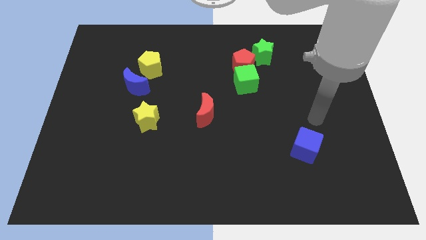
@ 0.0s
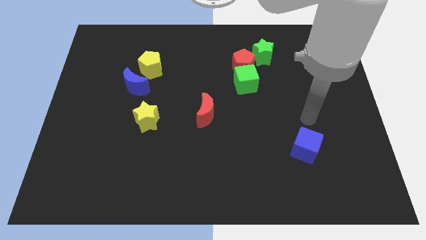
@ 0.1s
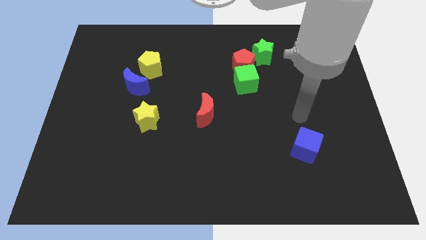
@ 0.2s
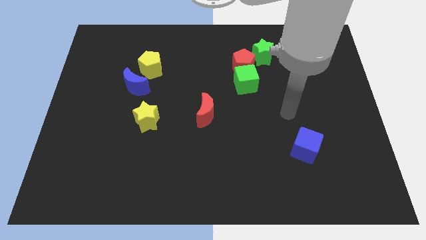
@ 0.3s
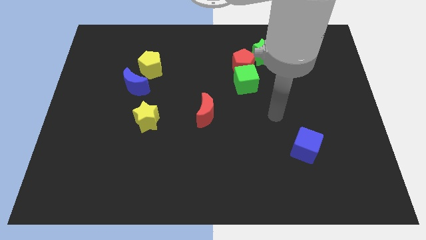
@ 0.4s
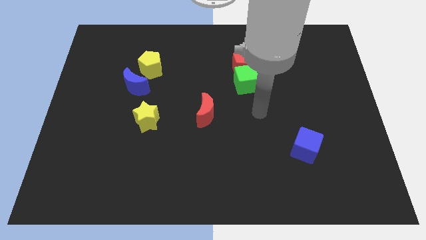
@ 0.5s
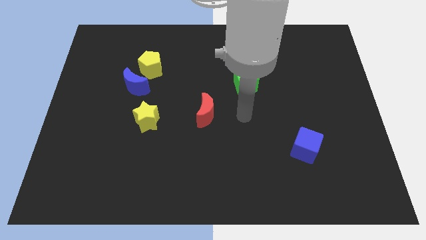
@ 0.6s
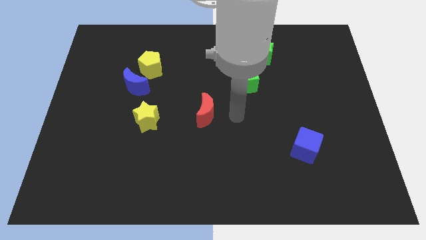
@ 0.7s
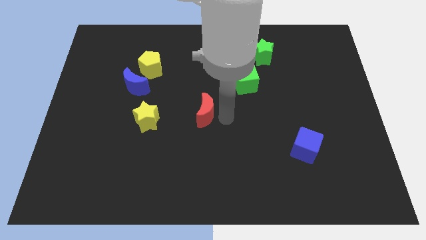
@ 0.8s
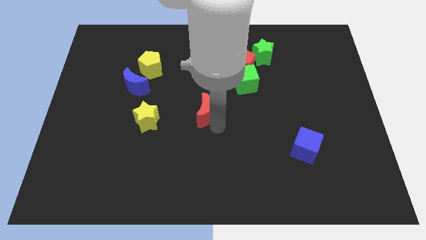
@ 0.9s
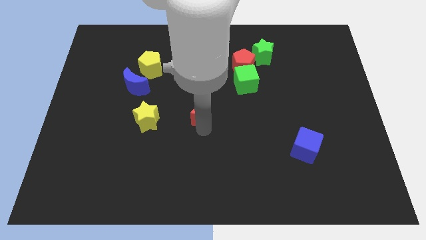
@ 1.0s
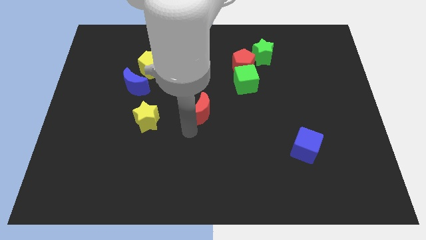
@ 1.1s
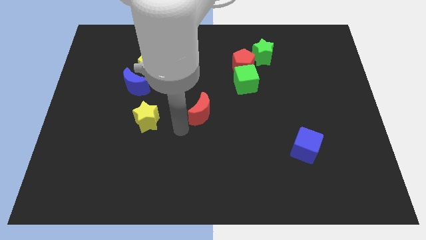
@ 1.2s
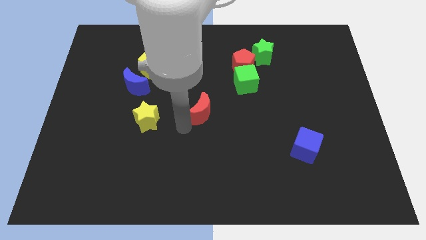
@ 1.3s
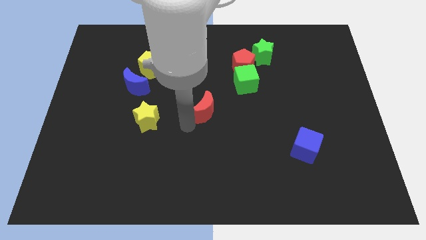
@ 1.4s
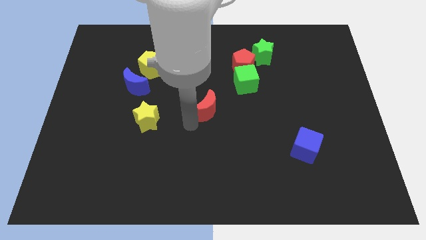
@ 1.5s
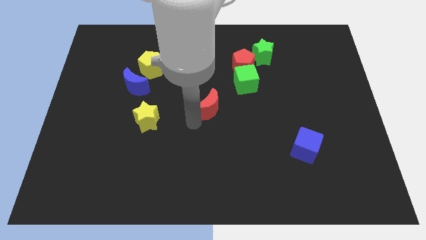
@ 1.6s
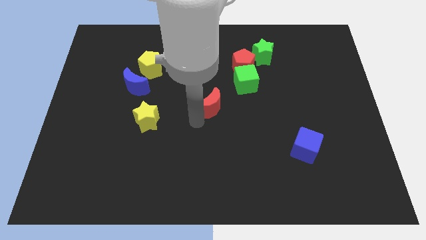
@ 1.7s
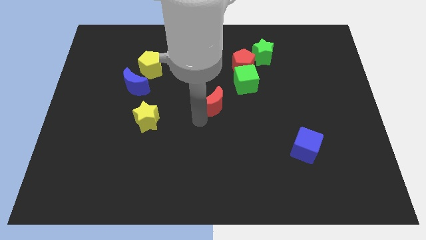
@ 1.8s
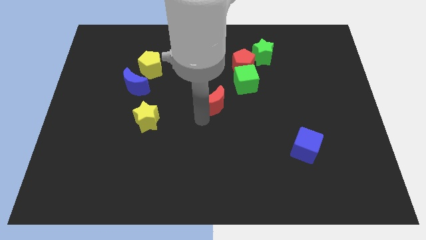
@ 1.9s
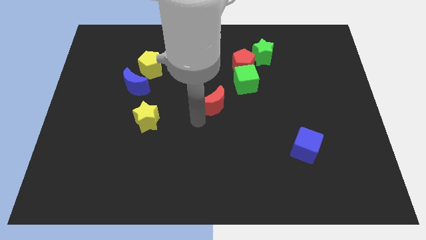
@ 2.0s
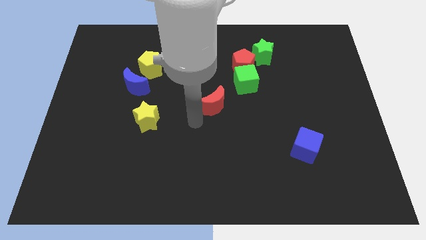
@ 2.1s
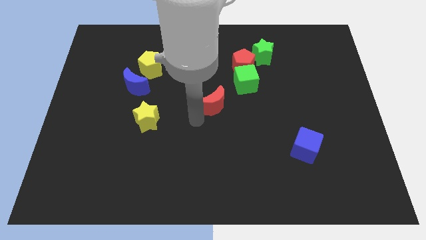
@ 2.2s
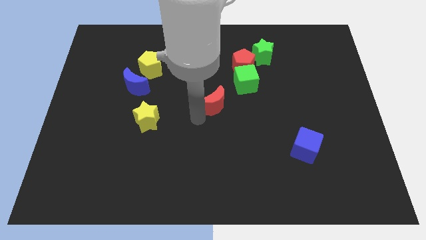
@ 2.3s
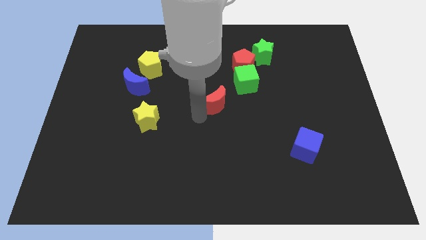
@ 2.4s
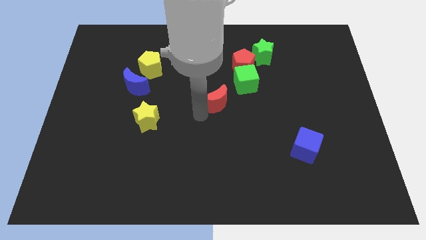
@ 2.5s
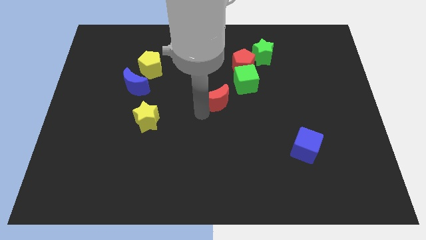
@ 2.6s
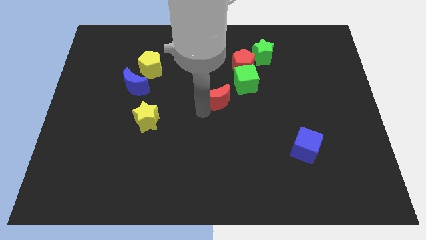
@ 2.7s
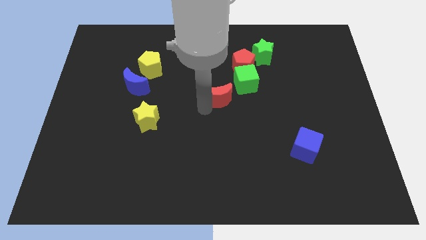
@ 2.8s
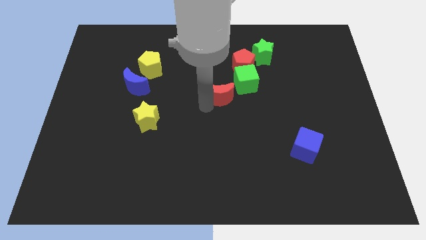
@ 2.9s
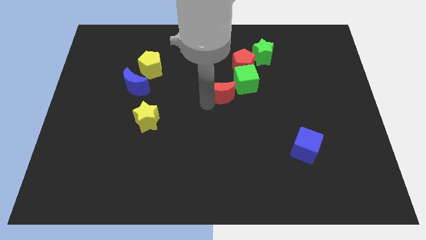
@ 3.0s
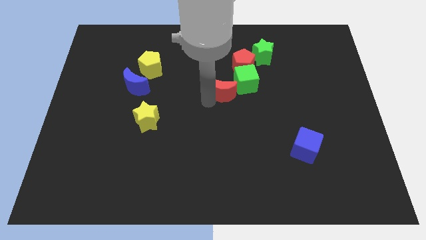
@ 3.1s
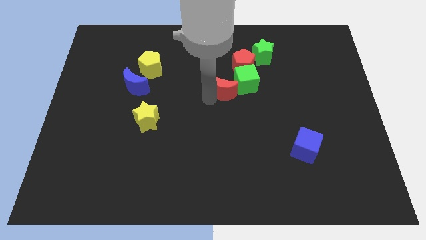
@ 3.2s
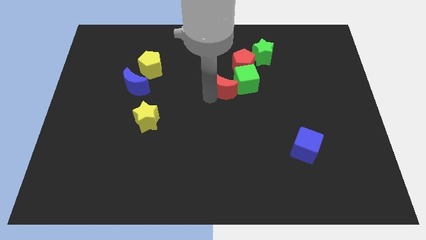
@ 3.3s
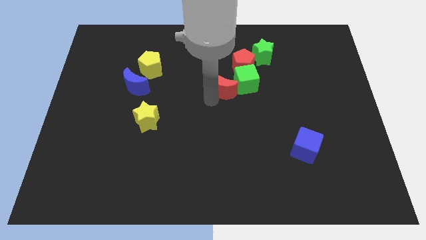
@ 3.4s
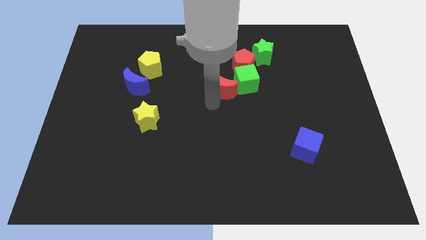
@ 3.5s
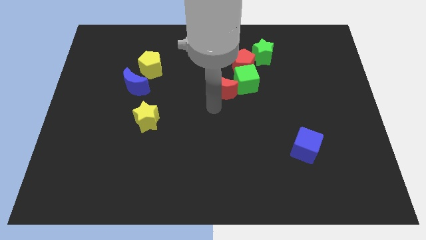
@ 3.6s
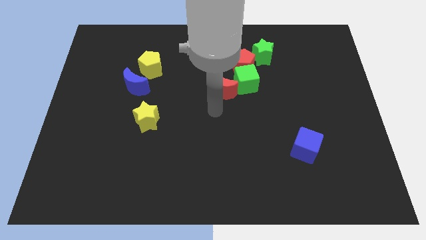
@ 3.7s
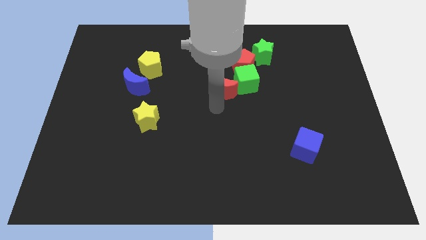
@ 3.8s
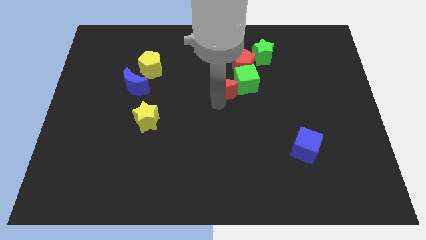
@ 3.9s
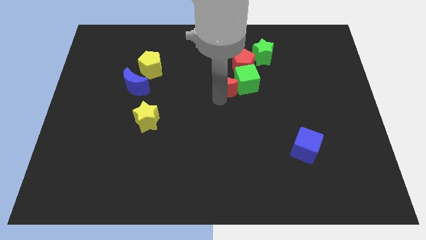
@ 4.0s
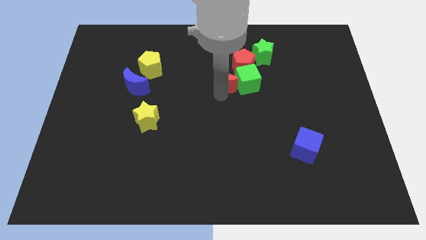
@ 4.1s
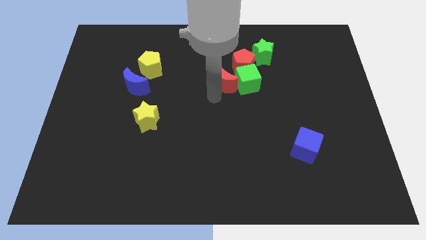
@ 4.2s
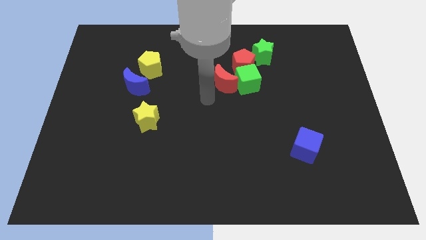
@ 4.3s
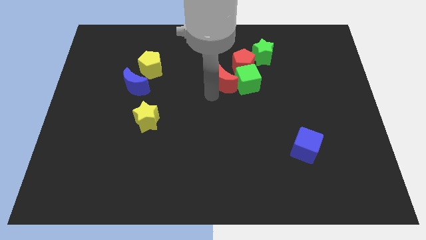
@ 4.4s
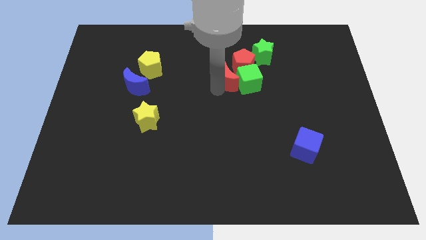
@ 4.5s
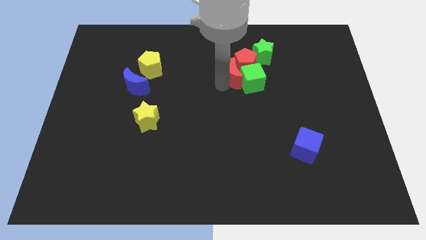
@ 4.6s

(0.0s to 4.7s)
slide the red moon to the red pentagon

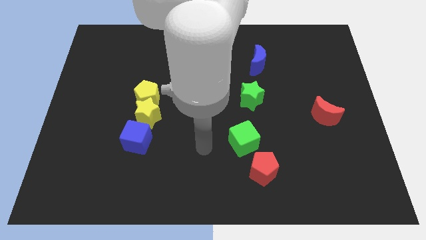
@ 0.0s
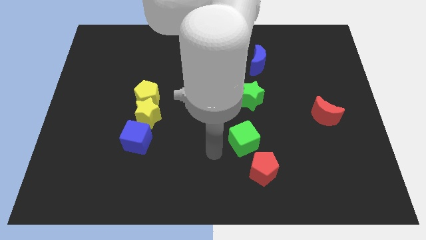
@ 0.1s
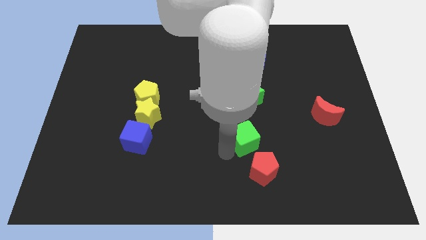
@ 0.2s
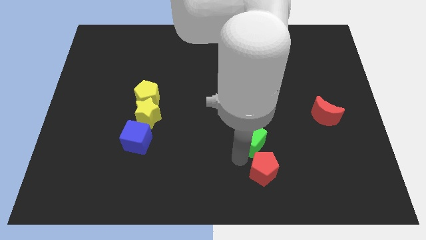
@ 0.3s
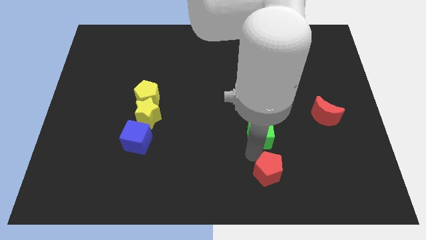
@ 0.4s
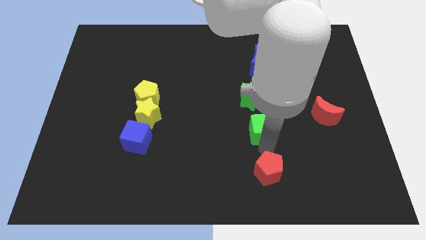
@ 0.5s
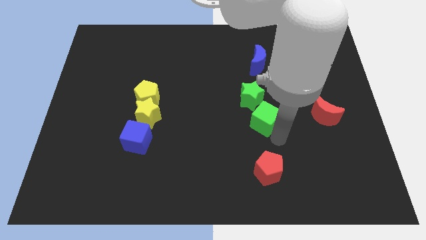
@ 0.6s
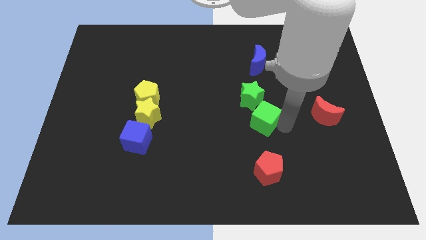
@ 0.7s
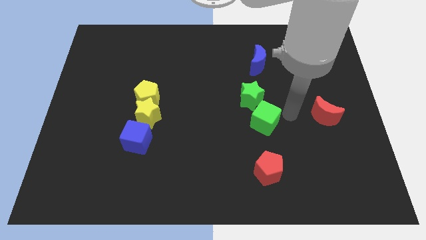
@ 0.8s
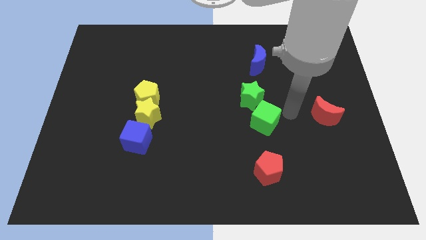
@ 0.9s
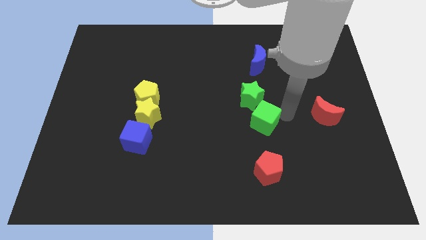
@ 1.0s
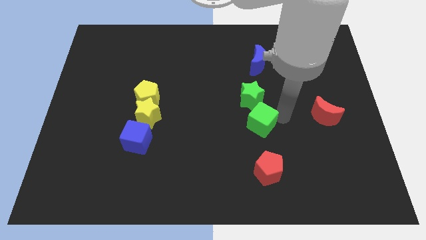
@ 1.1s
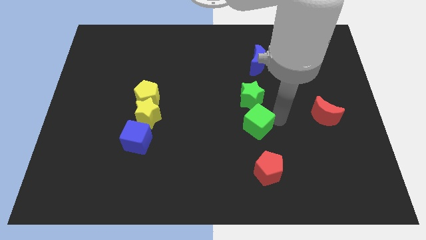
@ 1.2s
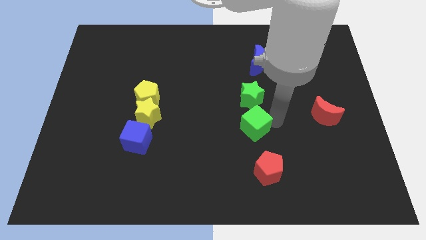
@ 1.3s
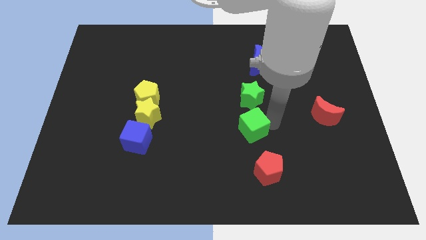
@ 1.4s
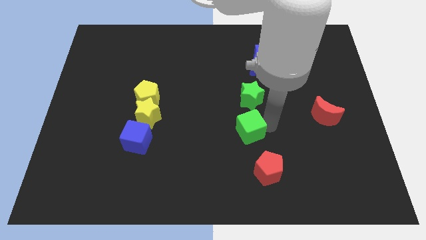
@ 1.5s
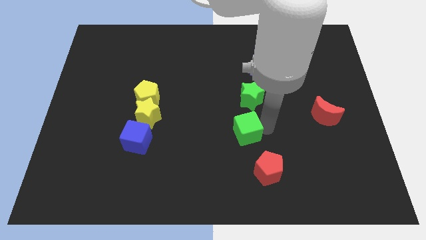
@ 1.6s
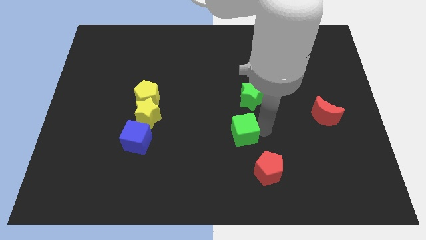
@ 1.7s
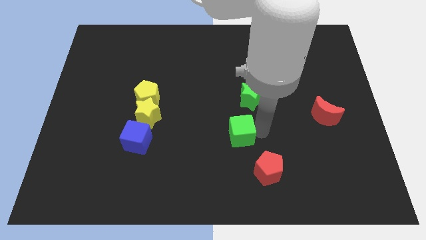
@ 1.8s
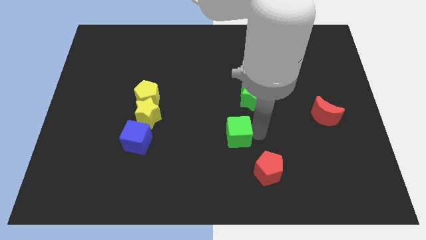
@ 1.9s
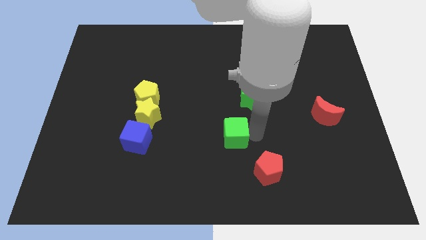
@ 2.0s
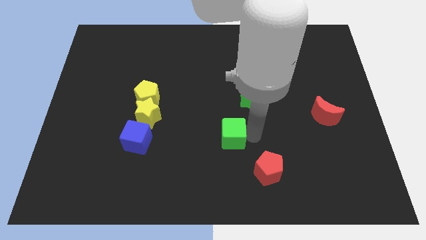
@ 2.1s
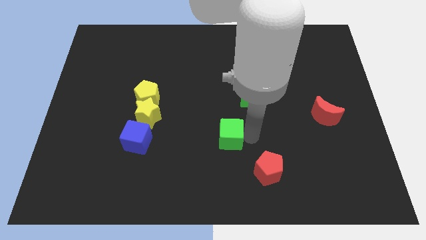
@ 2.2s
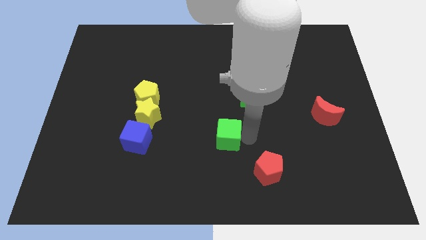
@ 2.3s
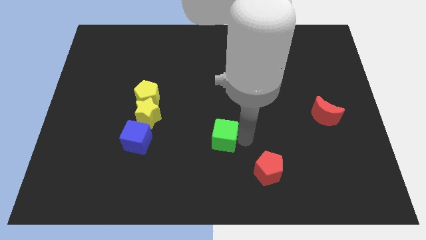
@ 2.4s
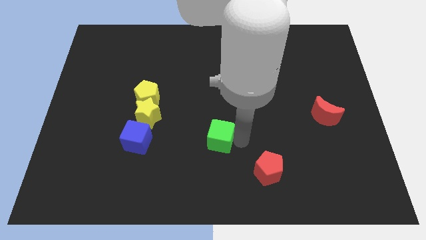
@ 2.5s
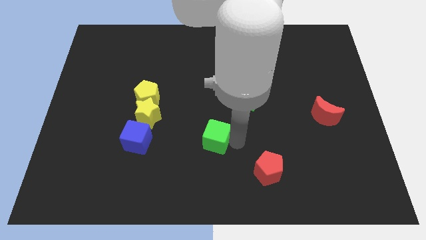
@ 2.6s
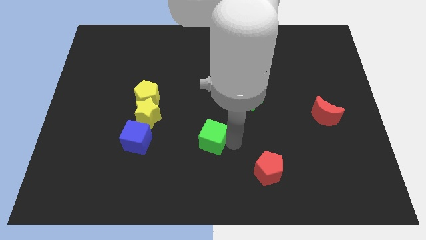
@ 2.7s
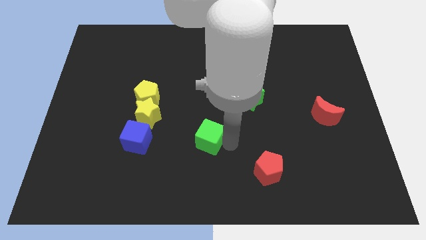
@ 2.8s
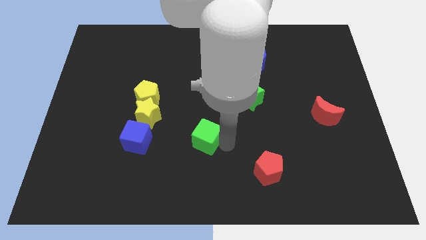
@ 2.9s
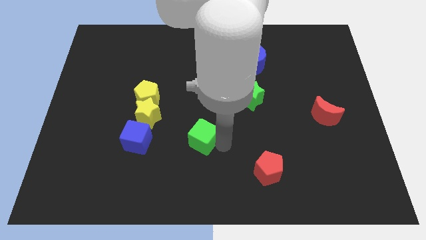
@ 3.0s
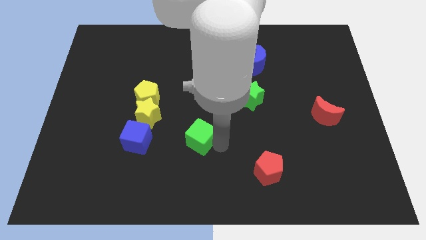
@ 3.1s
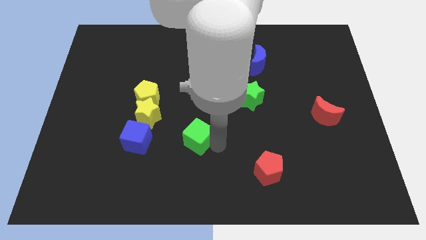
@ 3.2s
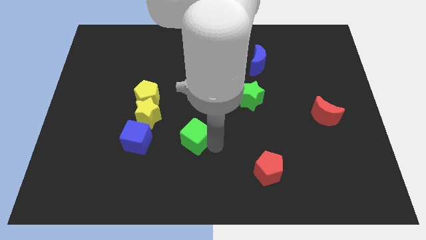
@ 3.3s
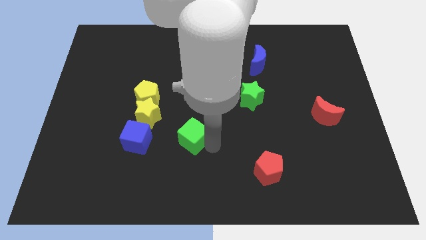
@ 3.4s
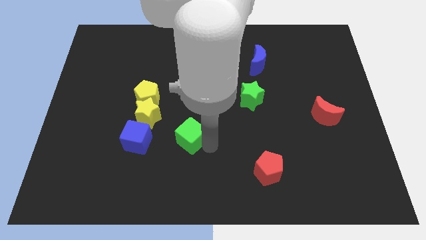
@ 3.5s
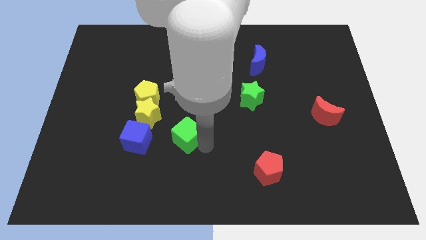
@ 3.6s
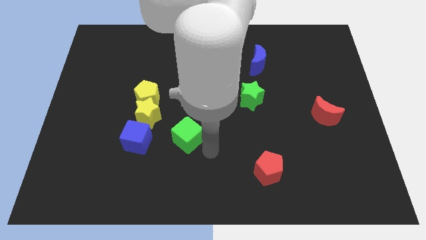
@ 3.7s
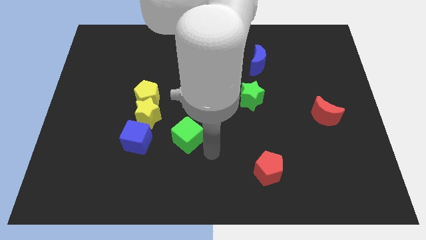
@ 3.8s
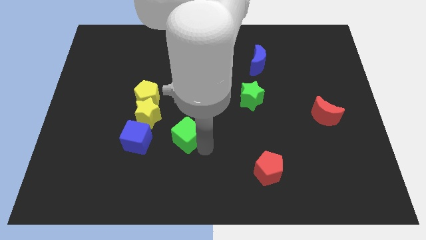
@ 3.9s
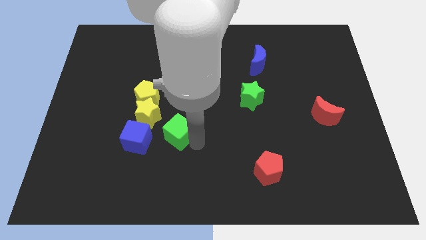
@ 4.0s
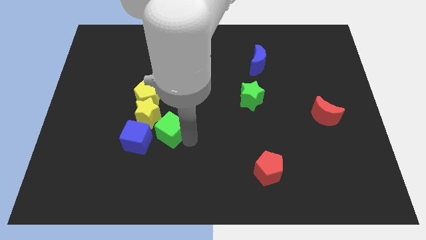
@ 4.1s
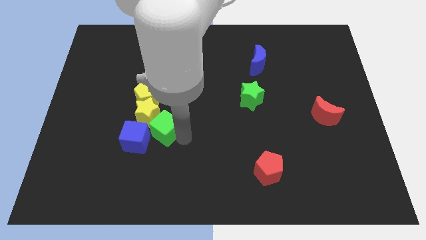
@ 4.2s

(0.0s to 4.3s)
put the green cube close to the yellow star
